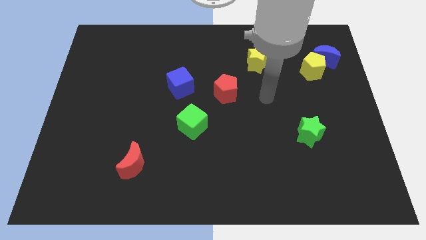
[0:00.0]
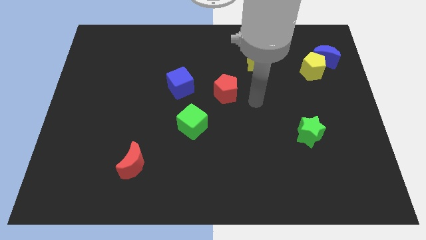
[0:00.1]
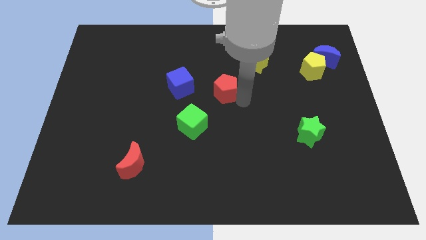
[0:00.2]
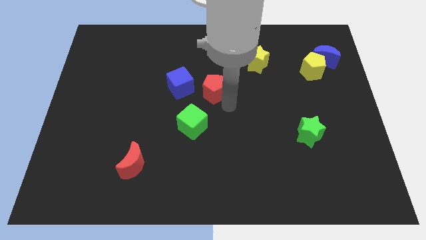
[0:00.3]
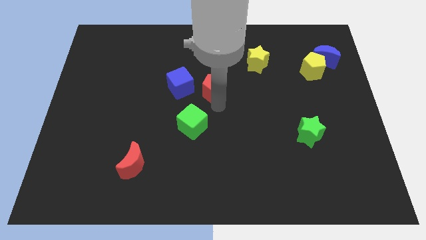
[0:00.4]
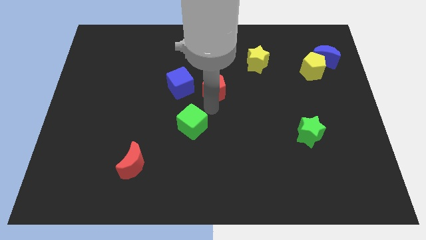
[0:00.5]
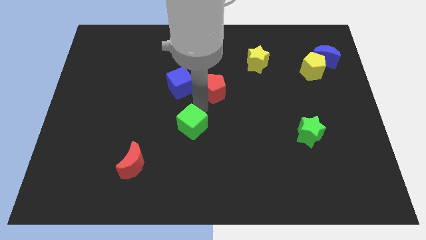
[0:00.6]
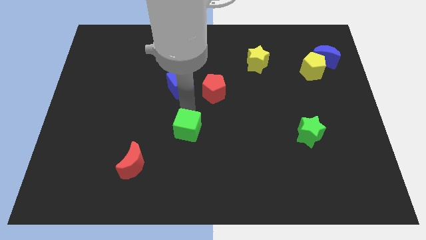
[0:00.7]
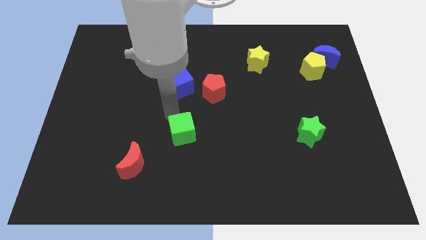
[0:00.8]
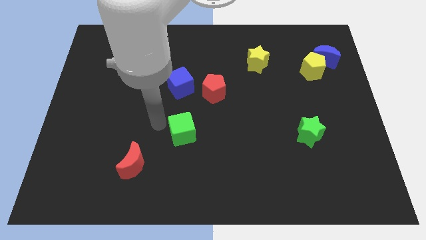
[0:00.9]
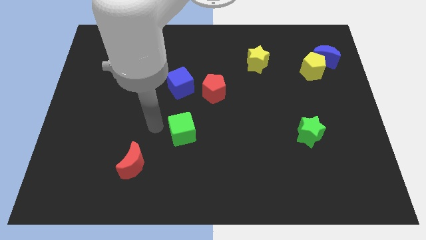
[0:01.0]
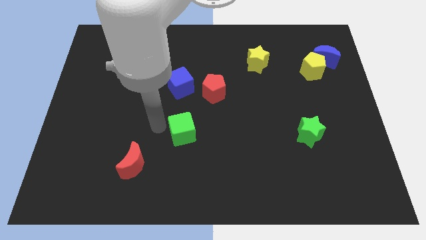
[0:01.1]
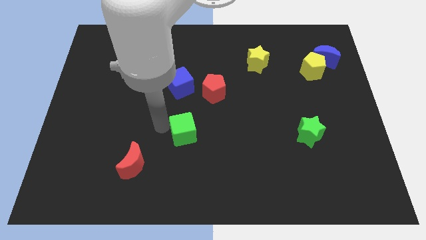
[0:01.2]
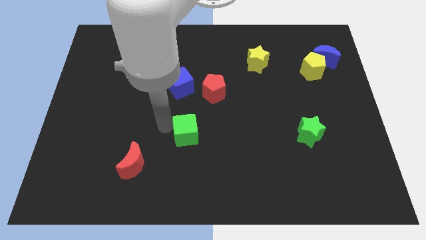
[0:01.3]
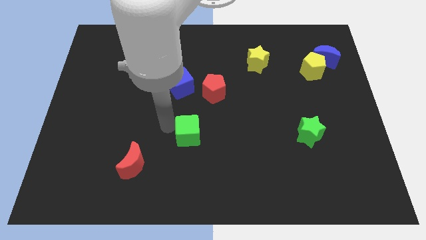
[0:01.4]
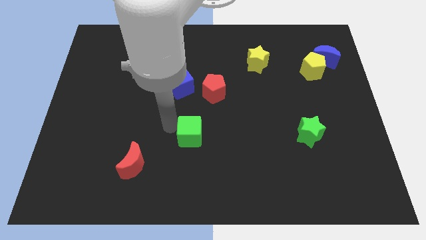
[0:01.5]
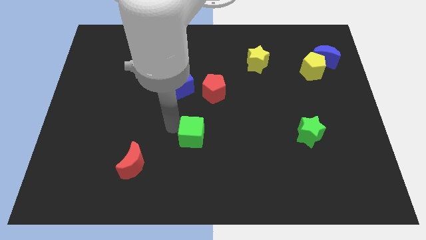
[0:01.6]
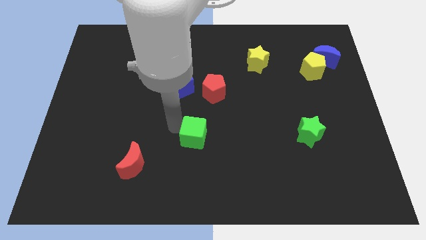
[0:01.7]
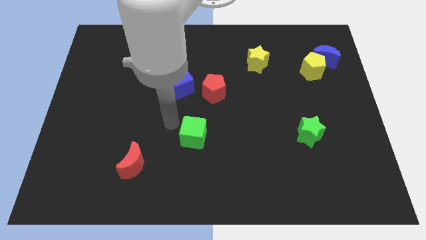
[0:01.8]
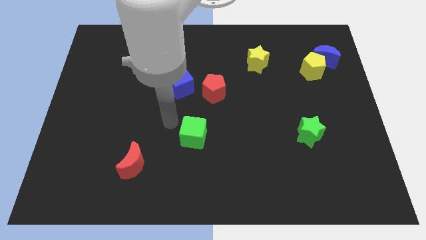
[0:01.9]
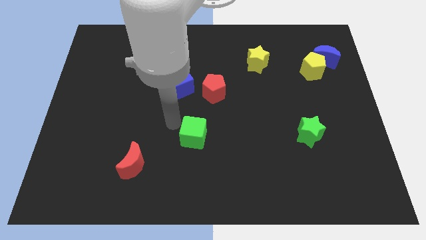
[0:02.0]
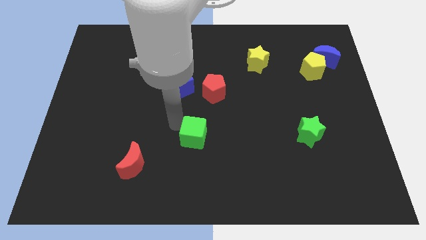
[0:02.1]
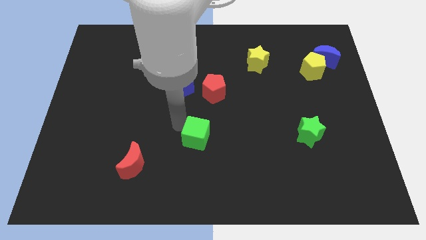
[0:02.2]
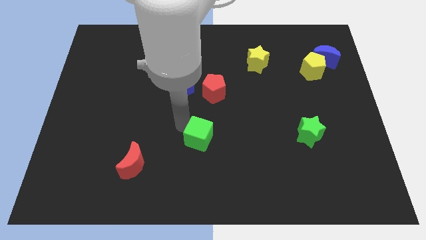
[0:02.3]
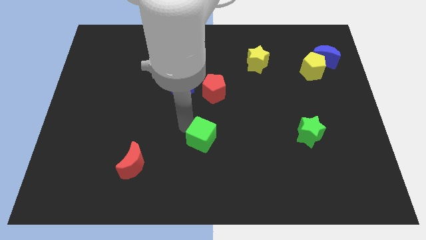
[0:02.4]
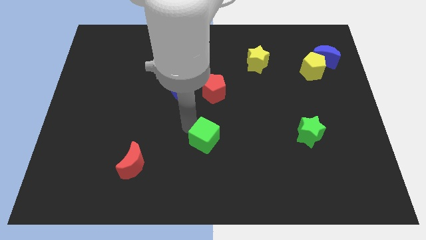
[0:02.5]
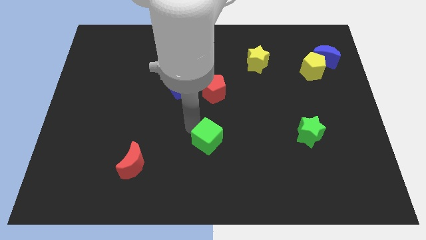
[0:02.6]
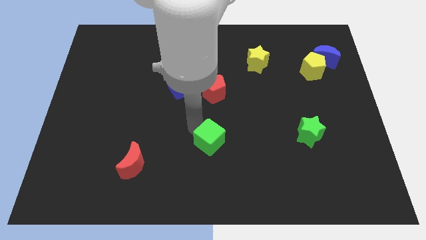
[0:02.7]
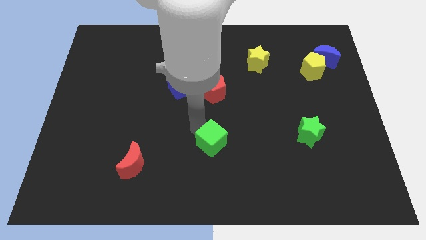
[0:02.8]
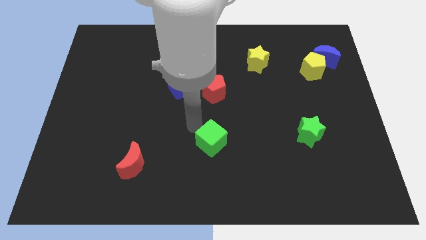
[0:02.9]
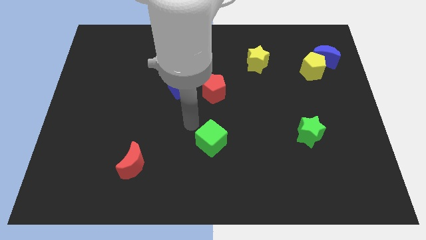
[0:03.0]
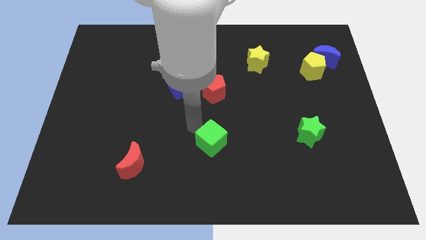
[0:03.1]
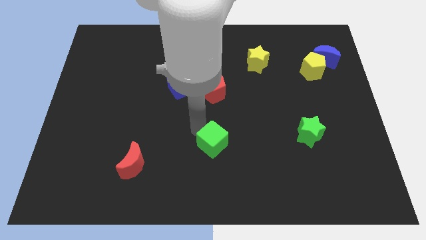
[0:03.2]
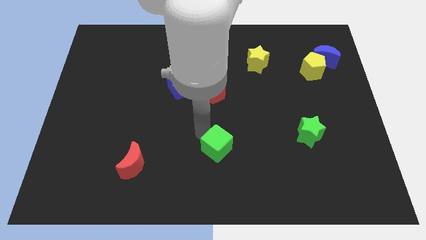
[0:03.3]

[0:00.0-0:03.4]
move the green cube slightly downwards and right diagonally

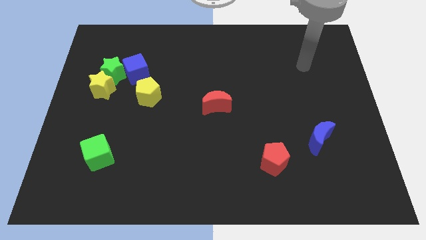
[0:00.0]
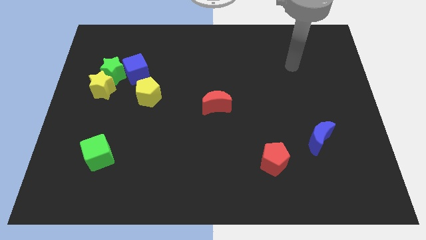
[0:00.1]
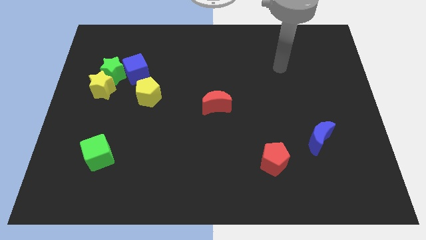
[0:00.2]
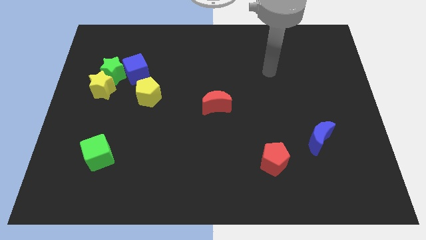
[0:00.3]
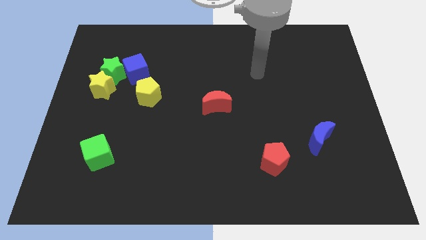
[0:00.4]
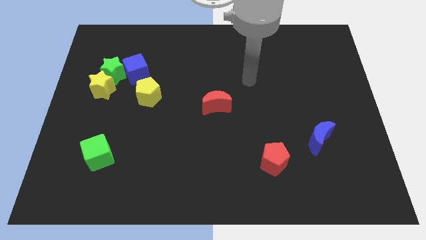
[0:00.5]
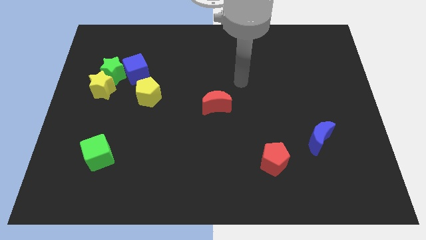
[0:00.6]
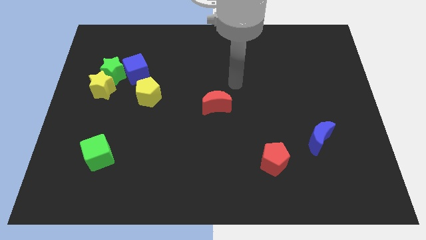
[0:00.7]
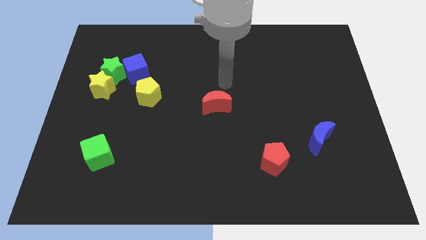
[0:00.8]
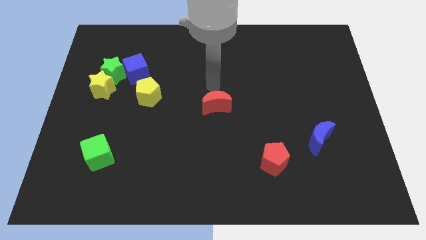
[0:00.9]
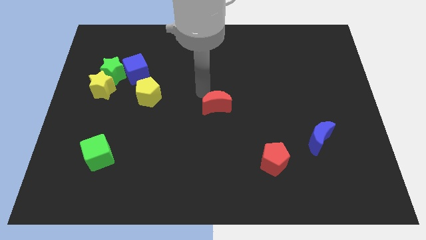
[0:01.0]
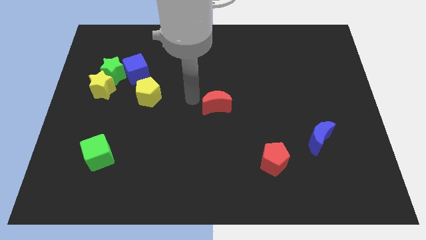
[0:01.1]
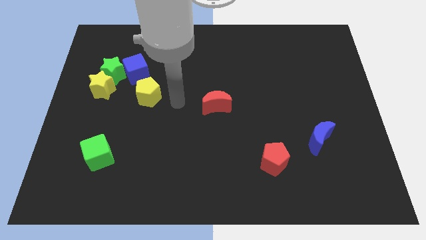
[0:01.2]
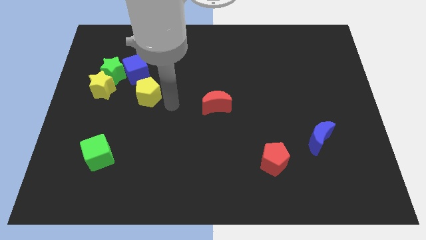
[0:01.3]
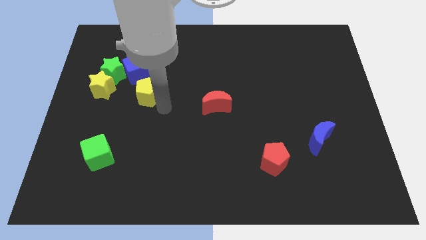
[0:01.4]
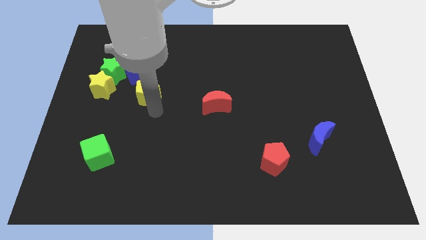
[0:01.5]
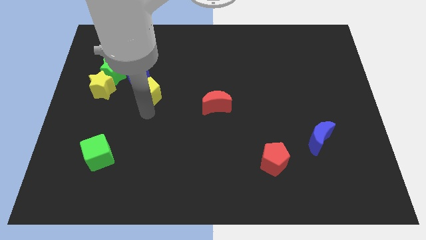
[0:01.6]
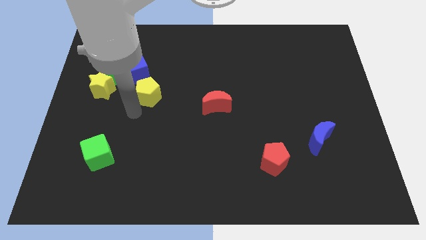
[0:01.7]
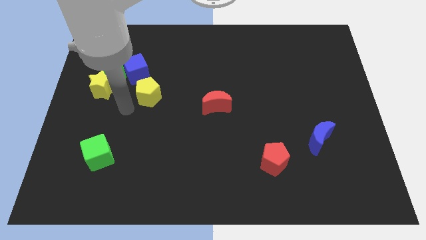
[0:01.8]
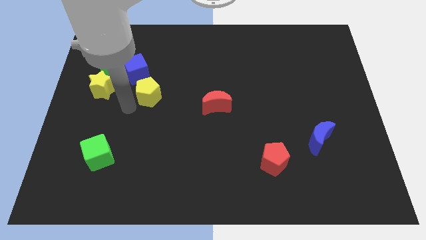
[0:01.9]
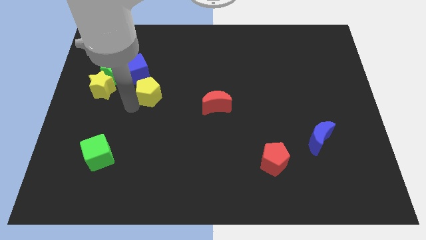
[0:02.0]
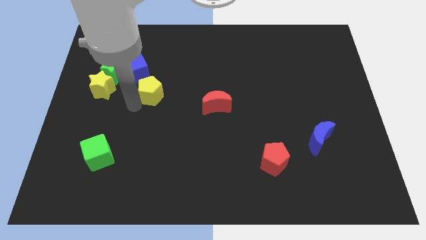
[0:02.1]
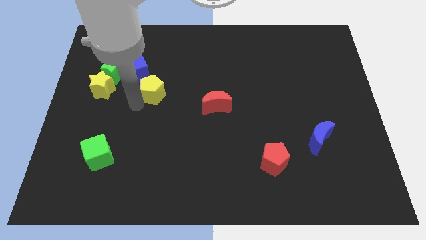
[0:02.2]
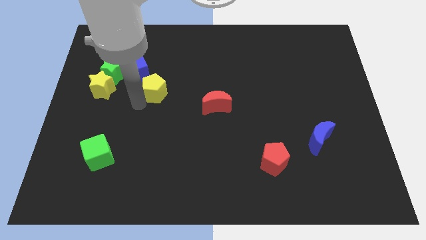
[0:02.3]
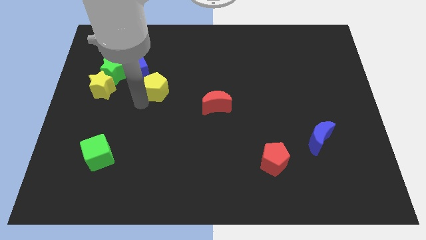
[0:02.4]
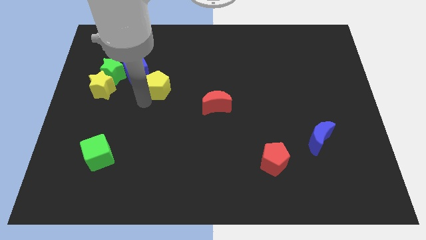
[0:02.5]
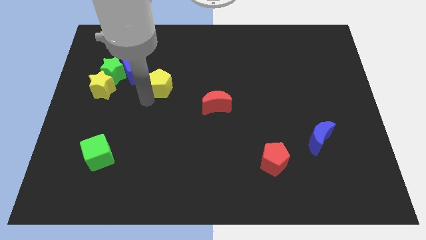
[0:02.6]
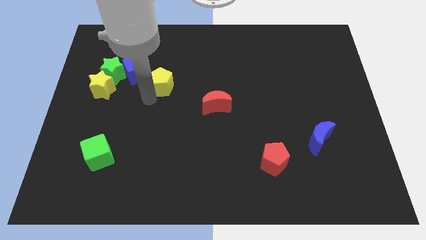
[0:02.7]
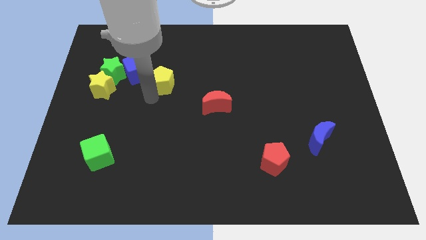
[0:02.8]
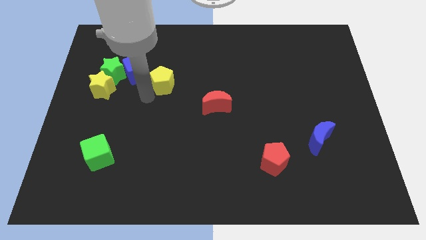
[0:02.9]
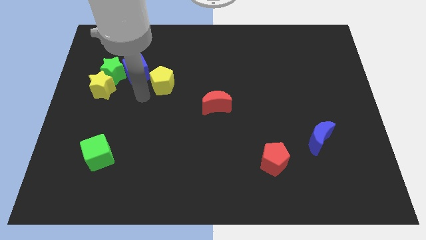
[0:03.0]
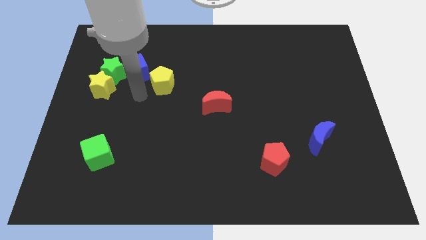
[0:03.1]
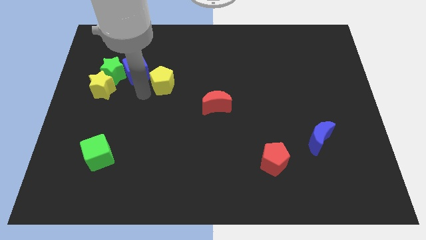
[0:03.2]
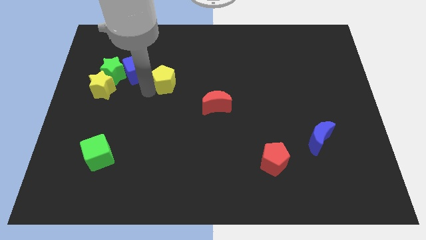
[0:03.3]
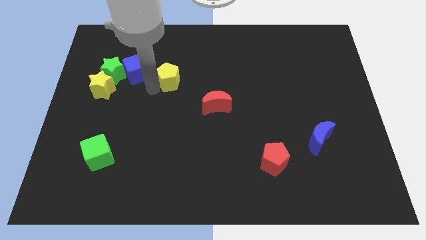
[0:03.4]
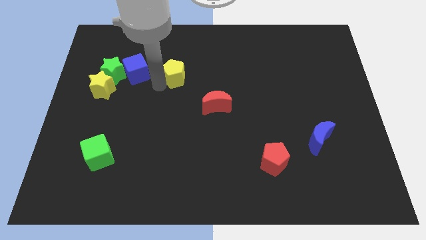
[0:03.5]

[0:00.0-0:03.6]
push the yellow pentagon up and then right somewhat

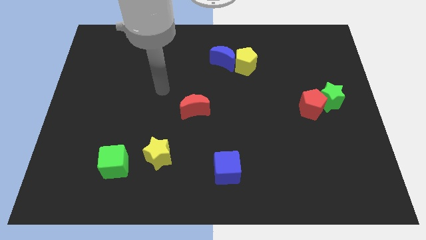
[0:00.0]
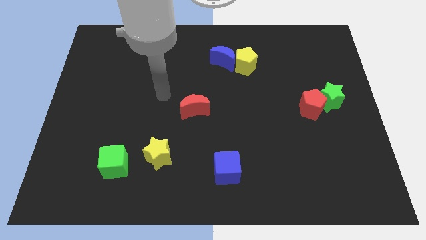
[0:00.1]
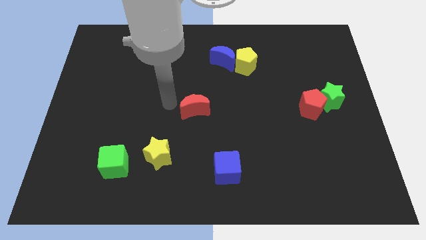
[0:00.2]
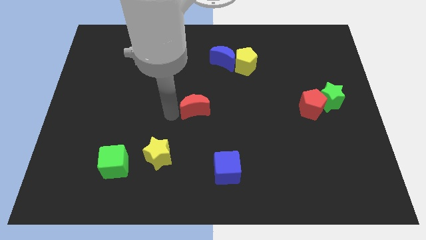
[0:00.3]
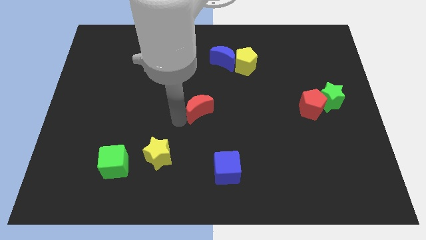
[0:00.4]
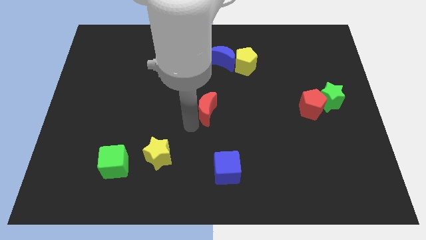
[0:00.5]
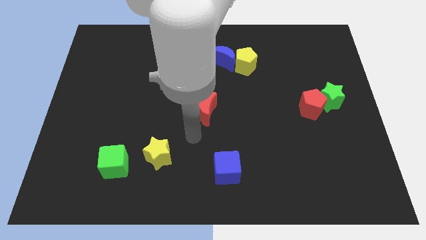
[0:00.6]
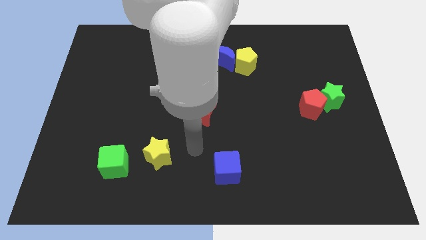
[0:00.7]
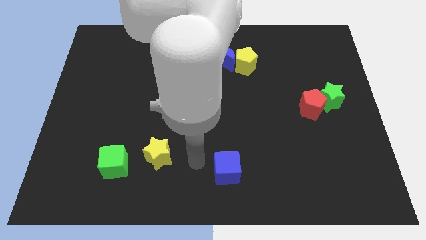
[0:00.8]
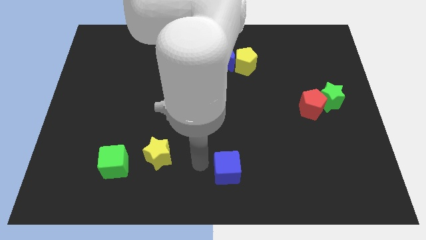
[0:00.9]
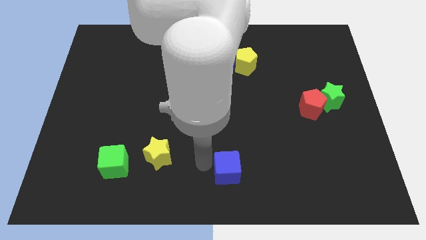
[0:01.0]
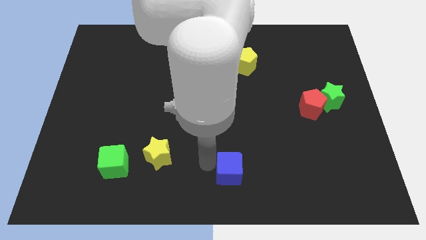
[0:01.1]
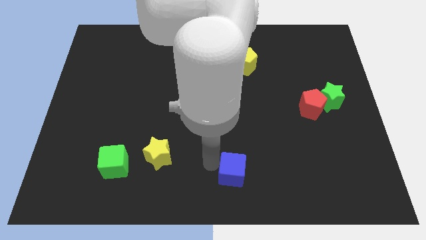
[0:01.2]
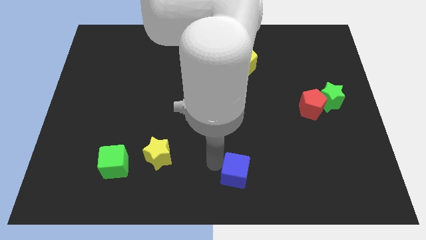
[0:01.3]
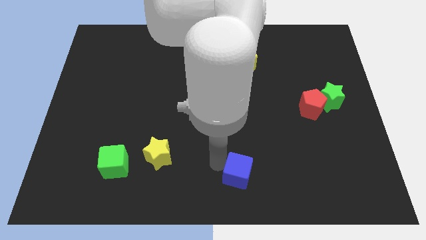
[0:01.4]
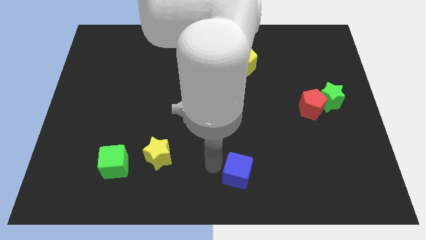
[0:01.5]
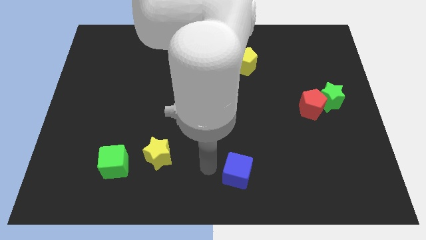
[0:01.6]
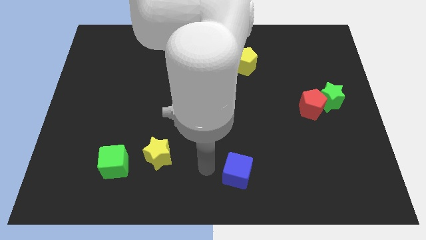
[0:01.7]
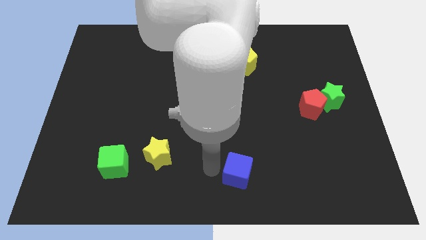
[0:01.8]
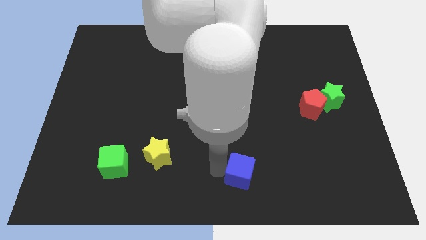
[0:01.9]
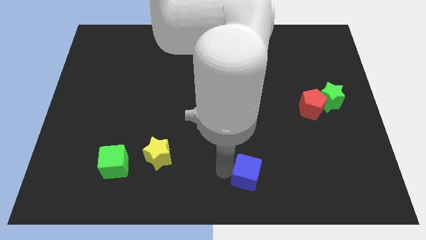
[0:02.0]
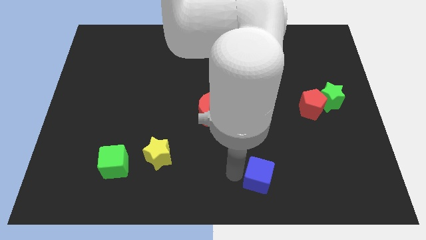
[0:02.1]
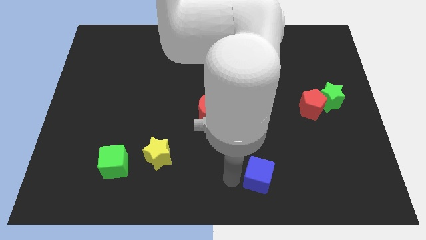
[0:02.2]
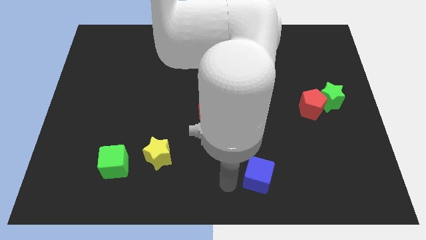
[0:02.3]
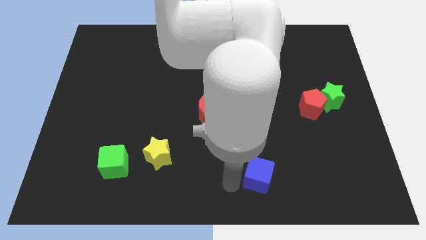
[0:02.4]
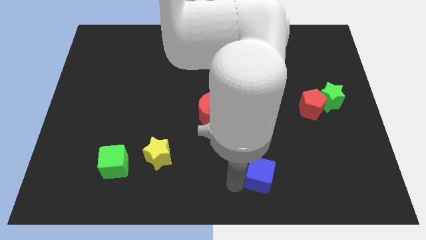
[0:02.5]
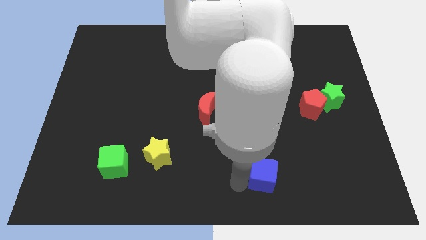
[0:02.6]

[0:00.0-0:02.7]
slightly slide the blue cube to the right
